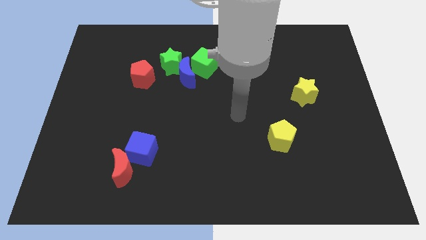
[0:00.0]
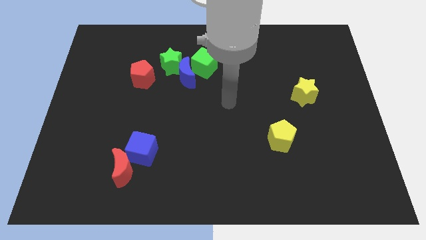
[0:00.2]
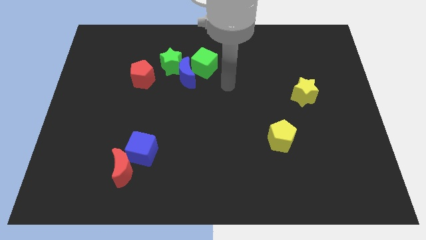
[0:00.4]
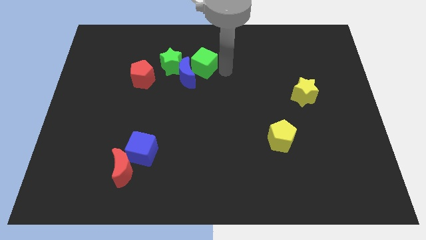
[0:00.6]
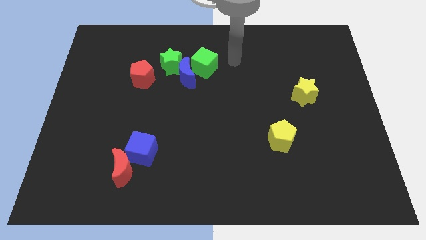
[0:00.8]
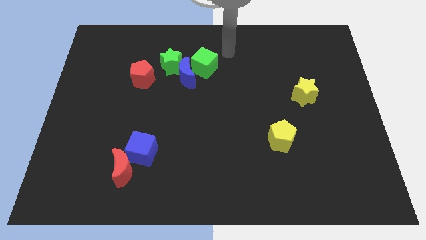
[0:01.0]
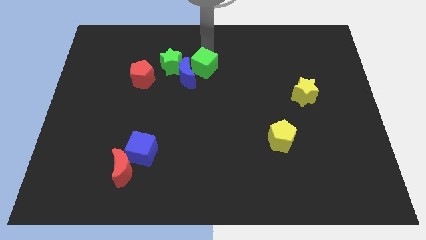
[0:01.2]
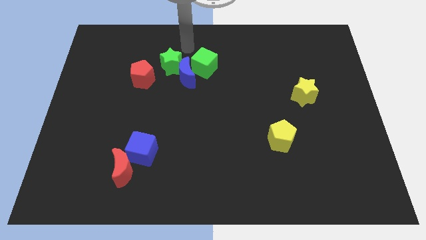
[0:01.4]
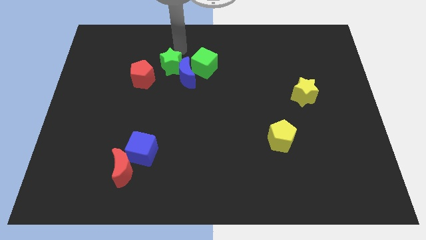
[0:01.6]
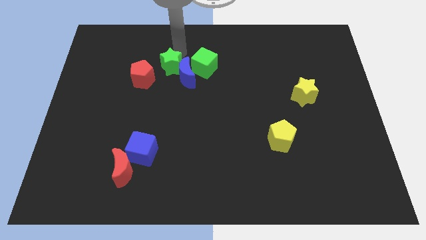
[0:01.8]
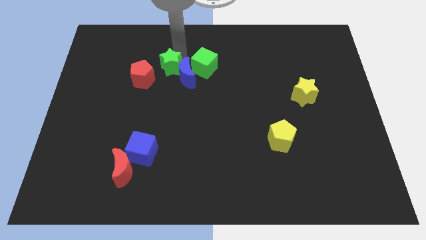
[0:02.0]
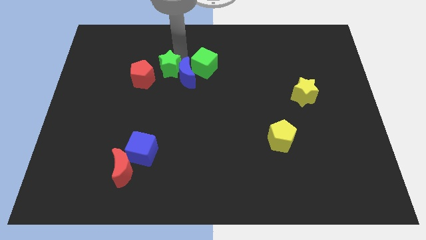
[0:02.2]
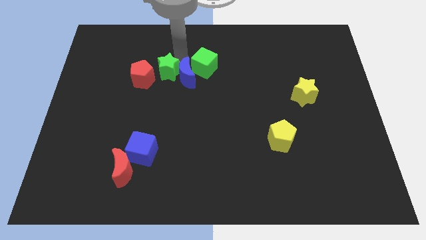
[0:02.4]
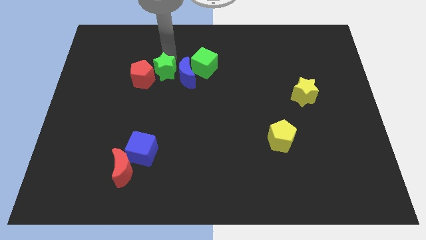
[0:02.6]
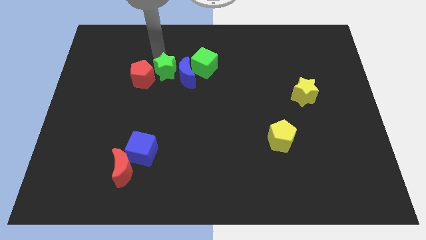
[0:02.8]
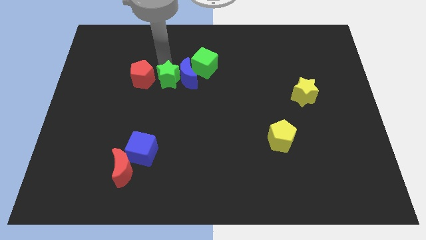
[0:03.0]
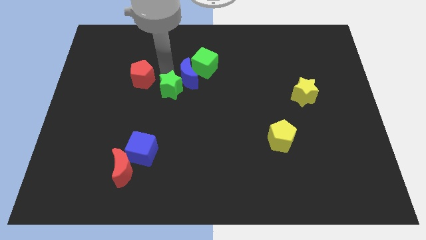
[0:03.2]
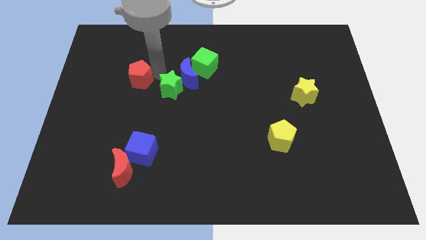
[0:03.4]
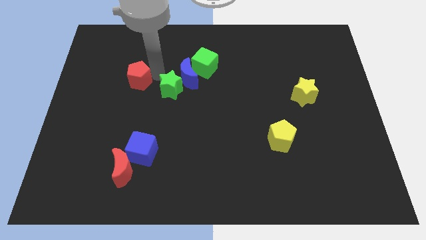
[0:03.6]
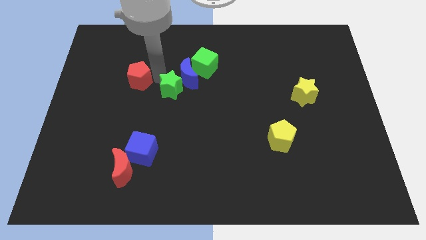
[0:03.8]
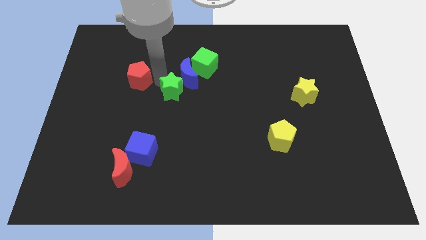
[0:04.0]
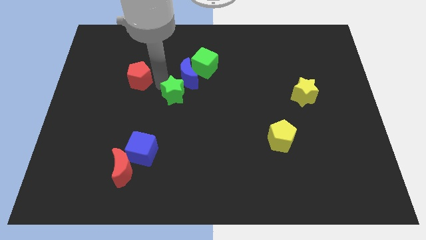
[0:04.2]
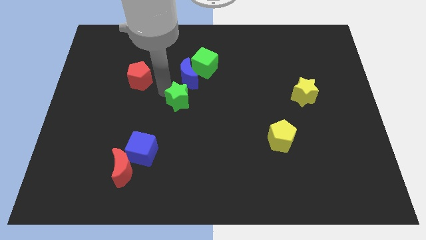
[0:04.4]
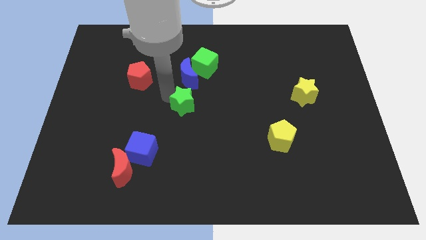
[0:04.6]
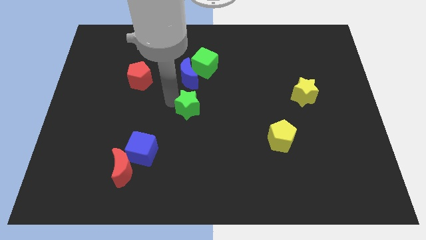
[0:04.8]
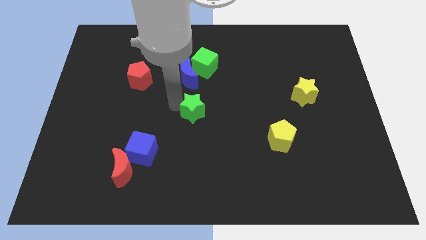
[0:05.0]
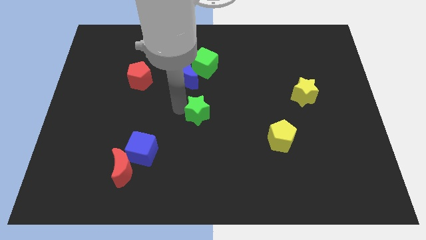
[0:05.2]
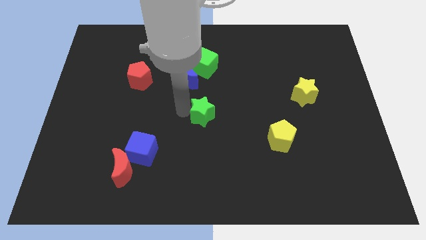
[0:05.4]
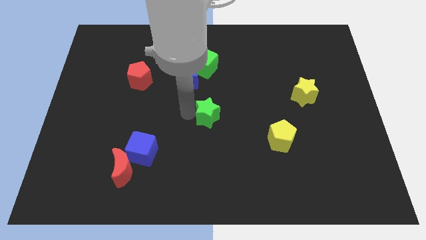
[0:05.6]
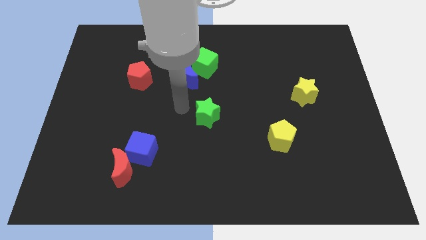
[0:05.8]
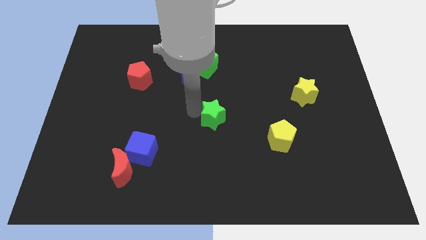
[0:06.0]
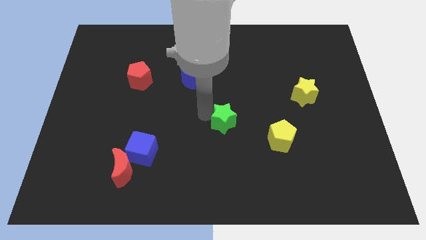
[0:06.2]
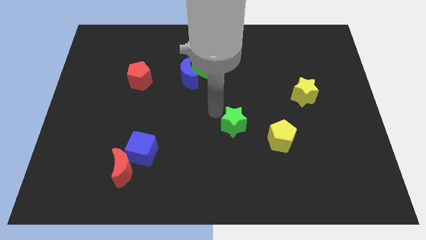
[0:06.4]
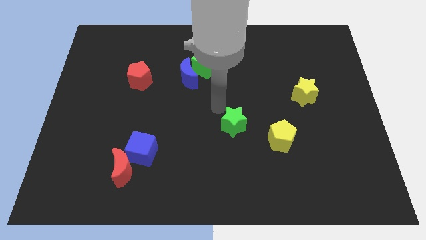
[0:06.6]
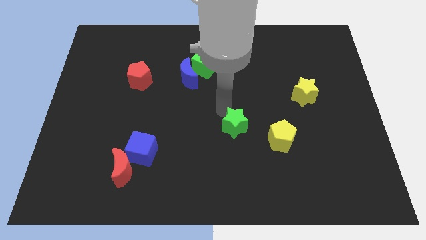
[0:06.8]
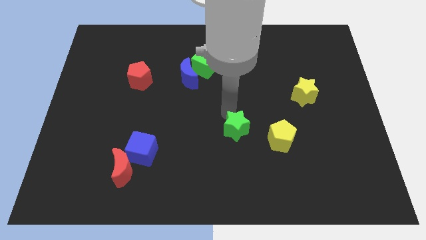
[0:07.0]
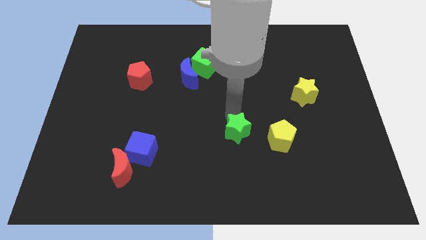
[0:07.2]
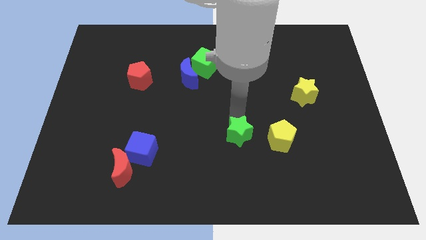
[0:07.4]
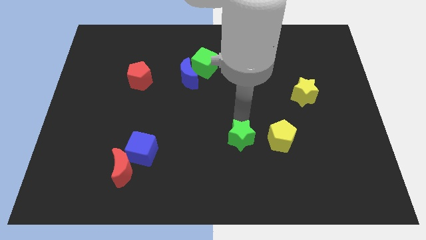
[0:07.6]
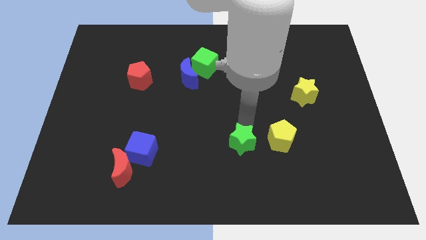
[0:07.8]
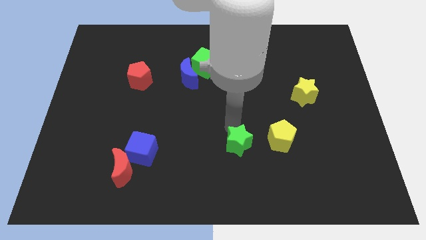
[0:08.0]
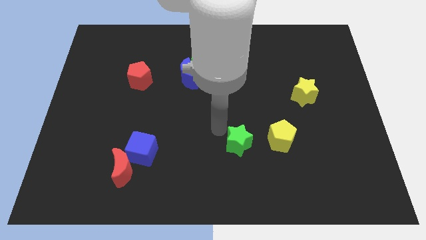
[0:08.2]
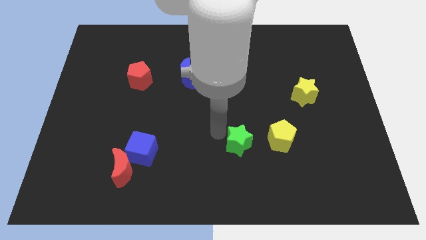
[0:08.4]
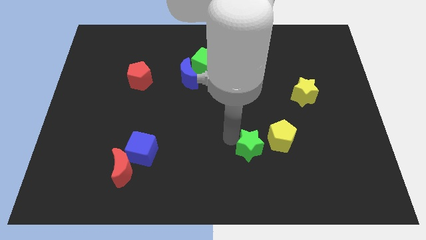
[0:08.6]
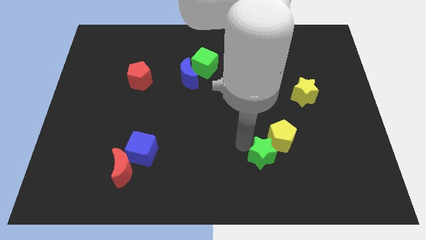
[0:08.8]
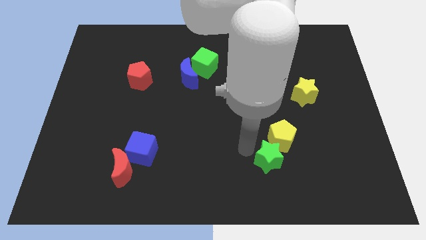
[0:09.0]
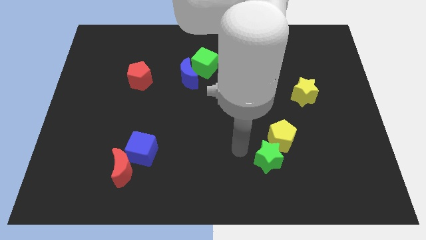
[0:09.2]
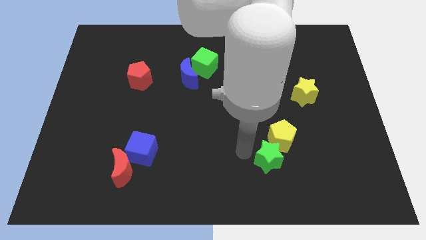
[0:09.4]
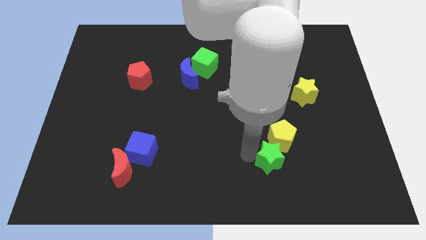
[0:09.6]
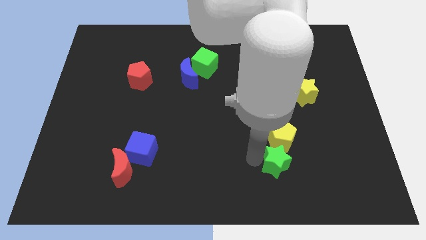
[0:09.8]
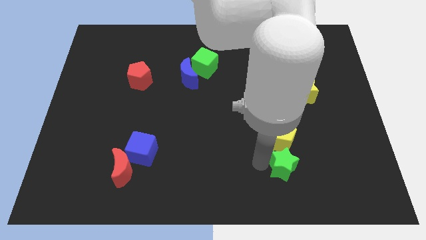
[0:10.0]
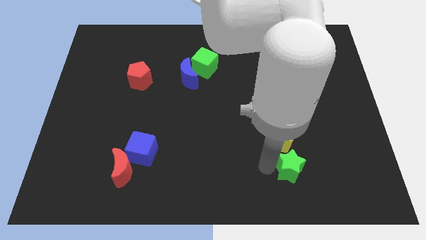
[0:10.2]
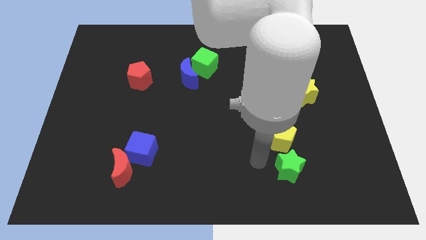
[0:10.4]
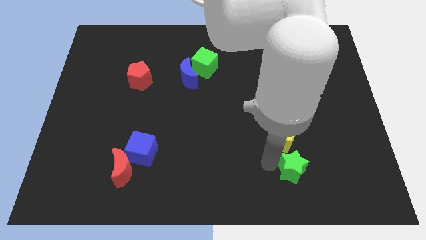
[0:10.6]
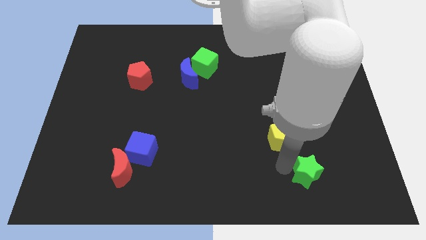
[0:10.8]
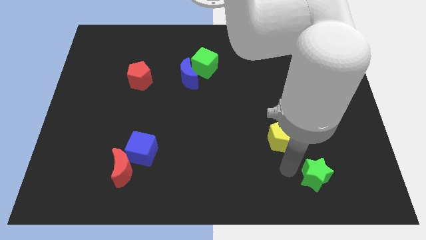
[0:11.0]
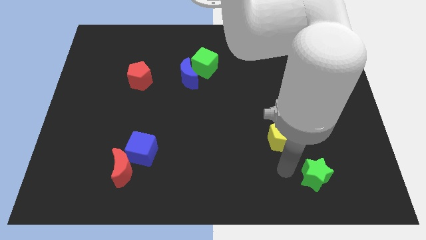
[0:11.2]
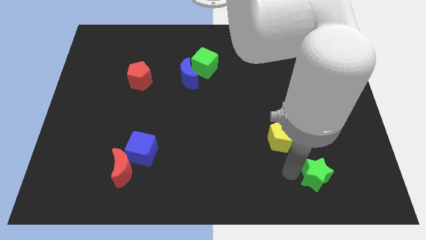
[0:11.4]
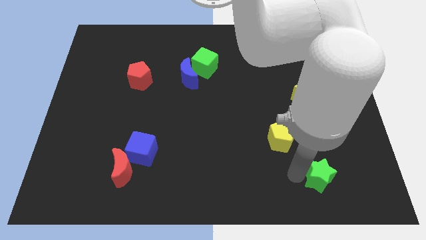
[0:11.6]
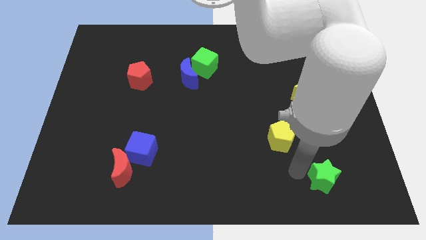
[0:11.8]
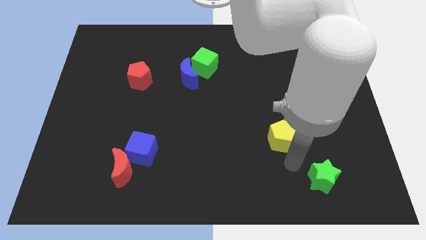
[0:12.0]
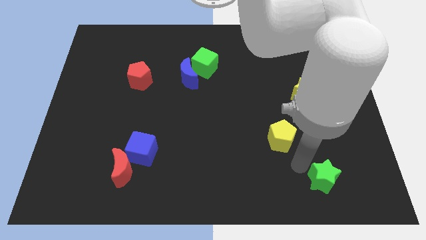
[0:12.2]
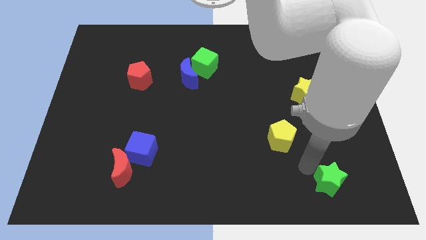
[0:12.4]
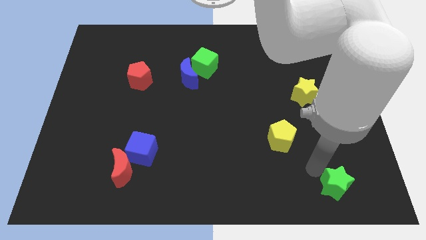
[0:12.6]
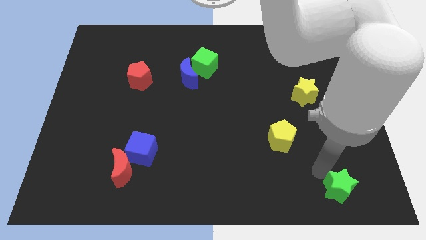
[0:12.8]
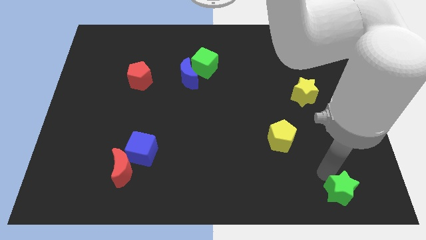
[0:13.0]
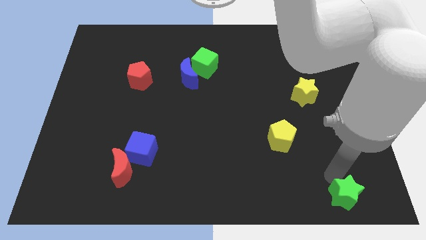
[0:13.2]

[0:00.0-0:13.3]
put the green star to the bottom right
